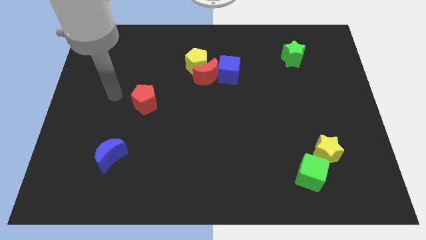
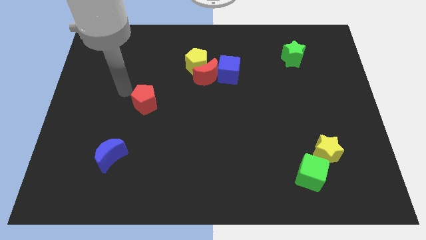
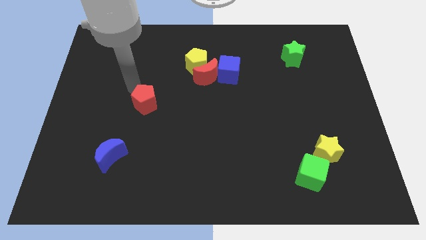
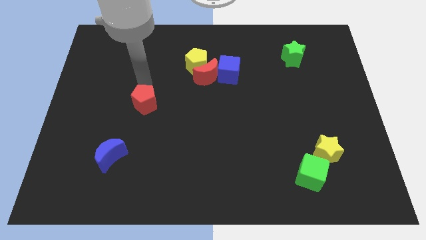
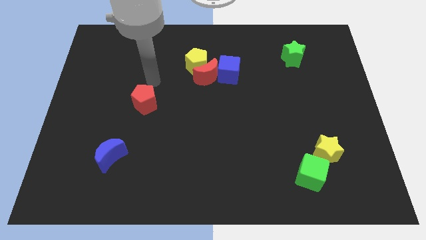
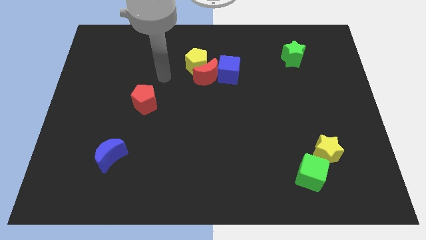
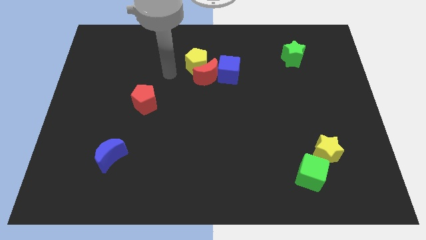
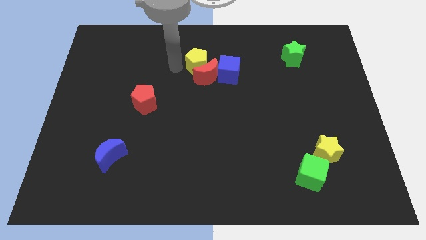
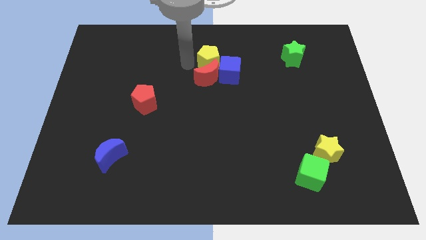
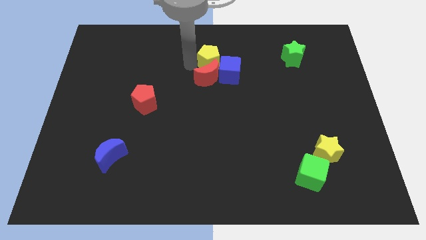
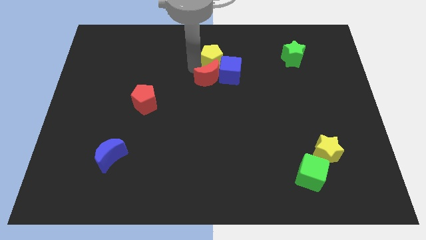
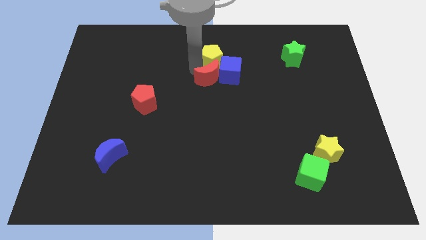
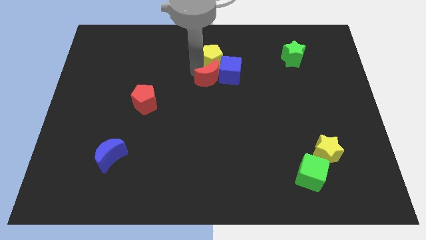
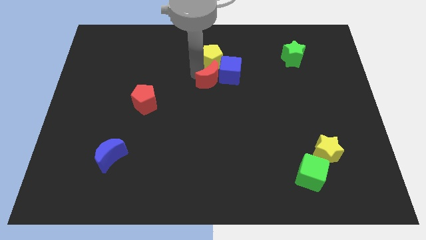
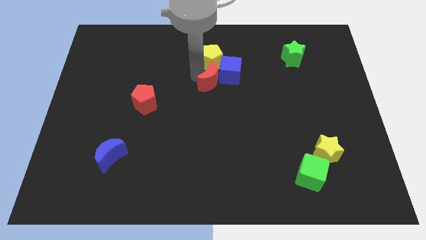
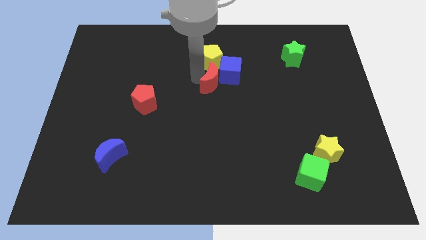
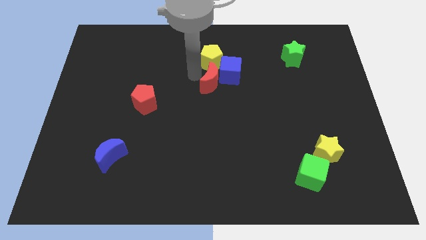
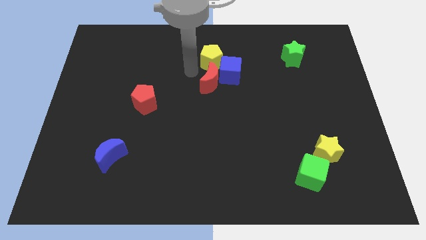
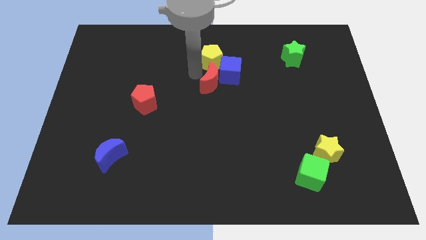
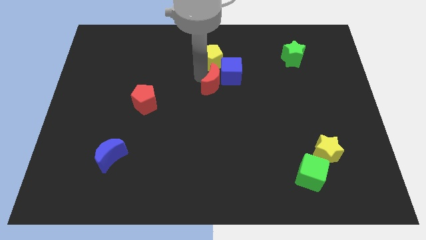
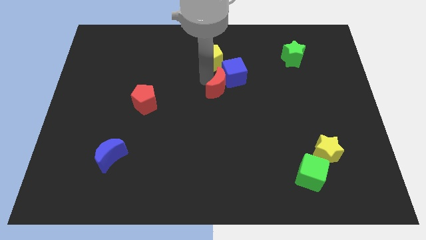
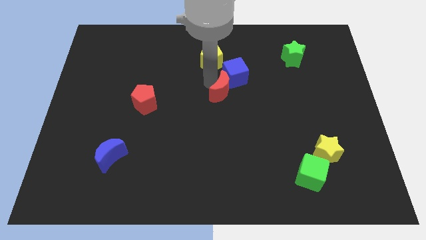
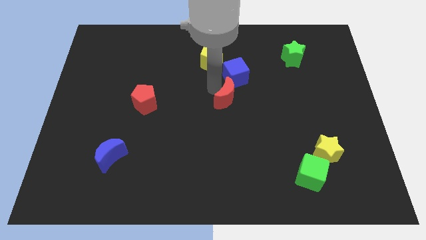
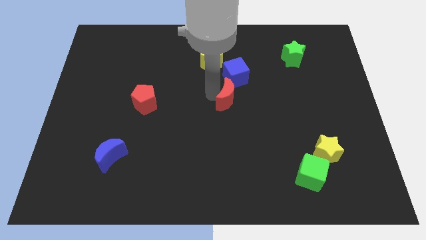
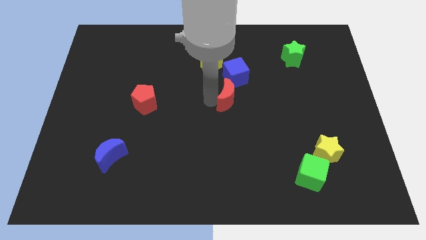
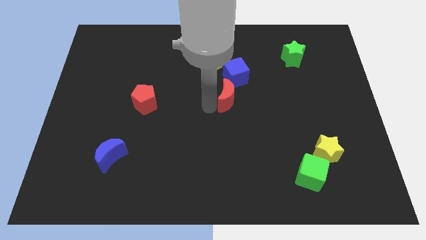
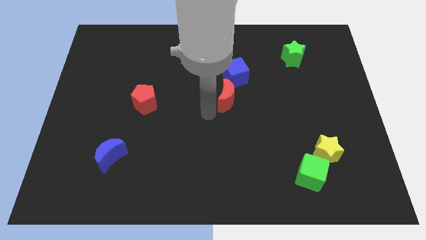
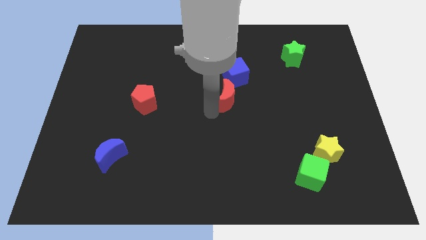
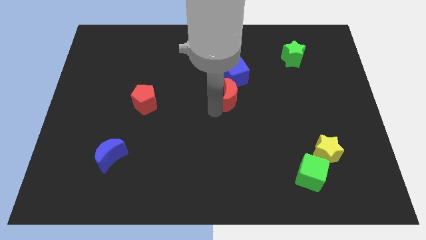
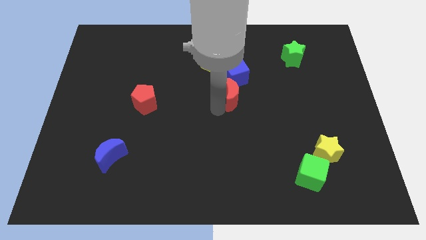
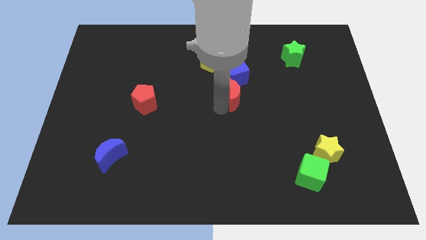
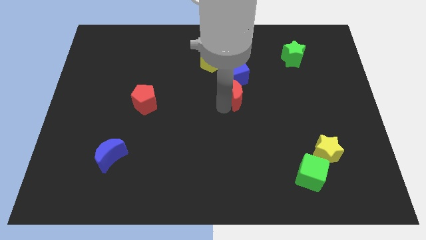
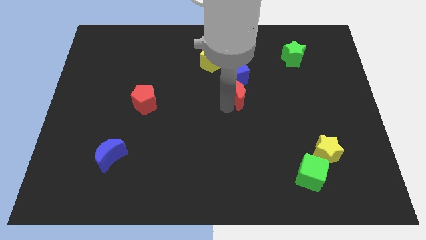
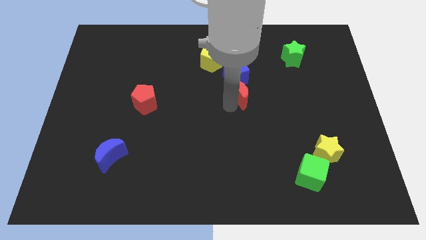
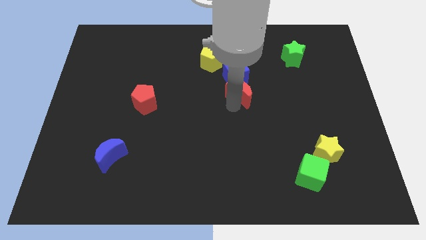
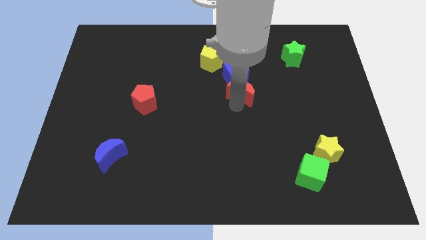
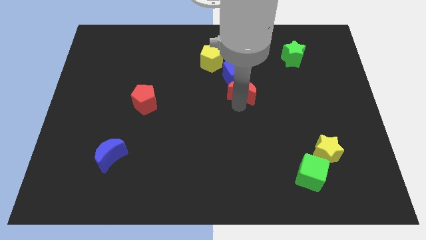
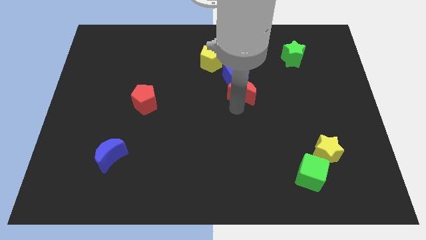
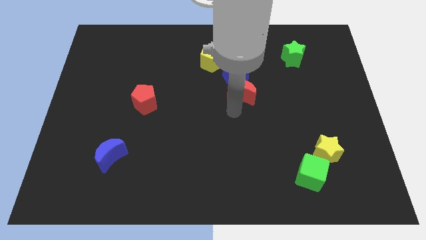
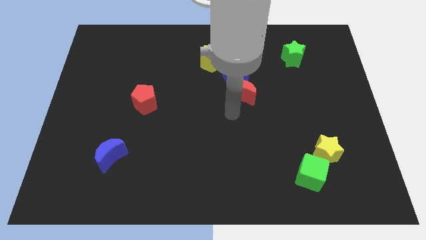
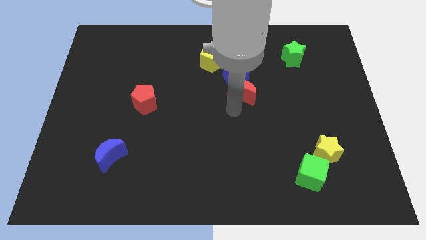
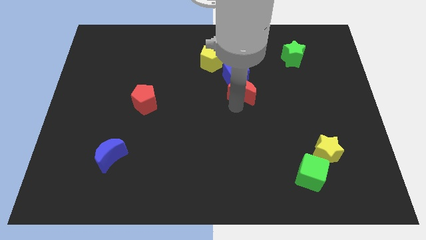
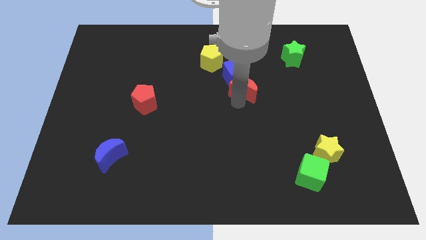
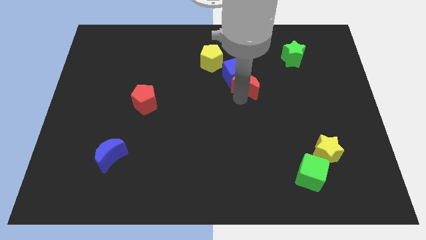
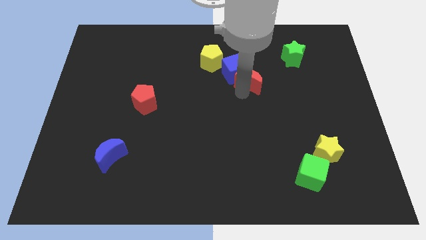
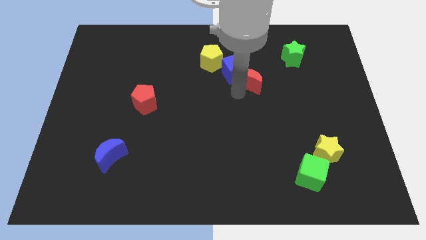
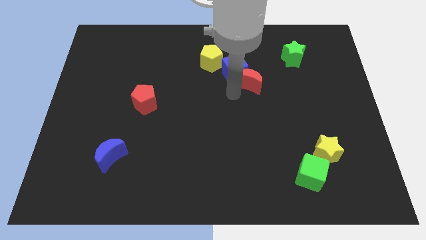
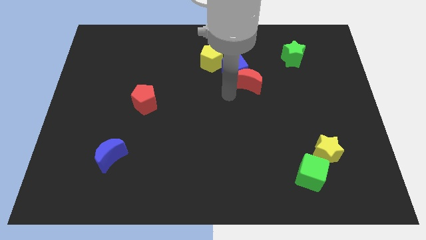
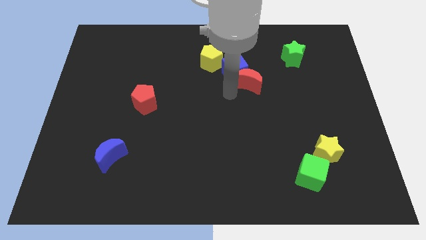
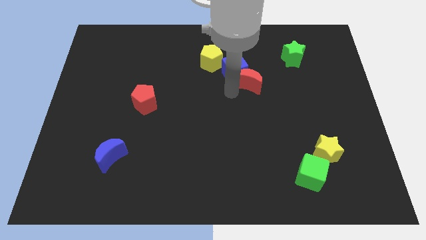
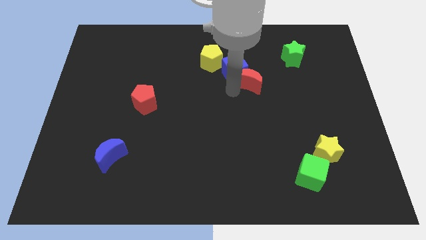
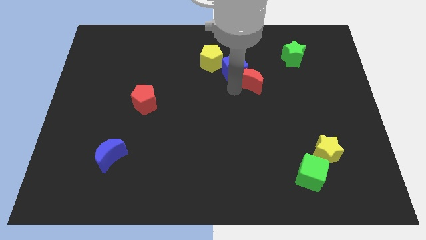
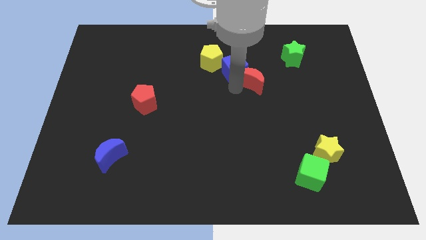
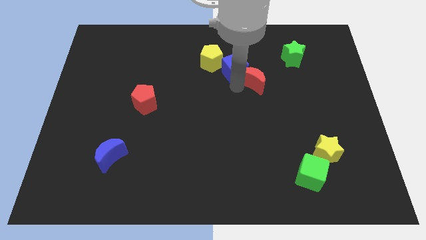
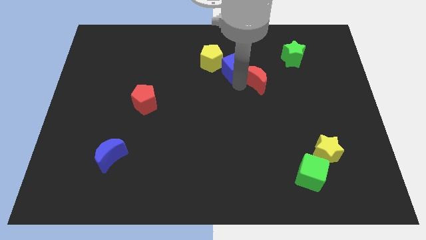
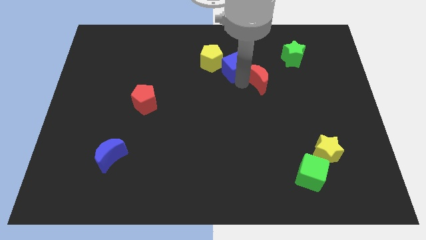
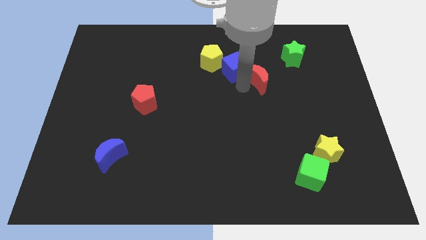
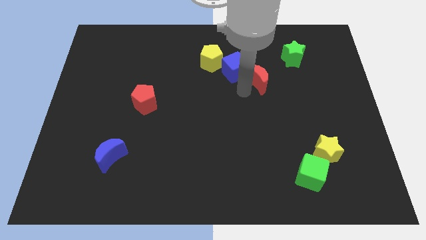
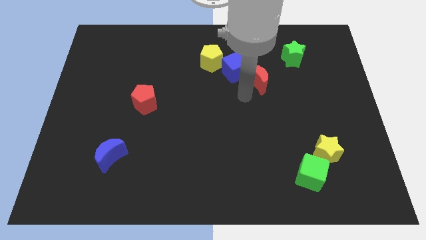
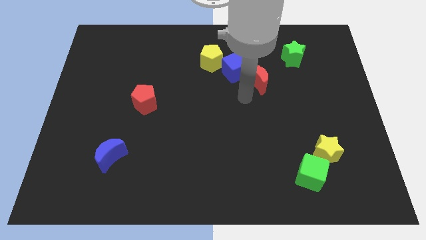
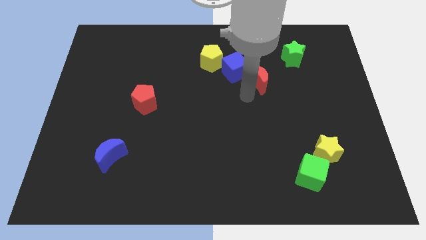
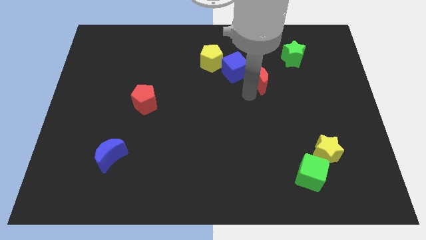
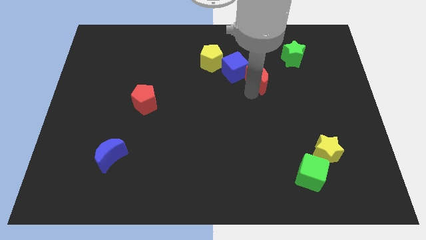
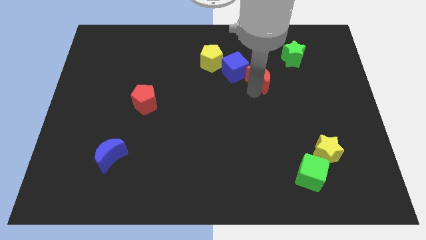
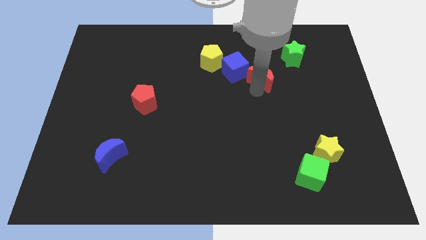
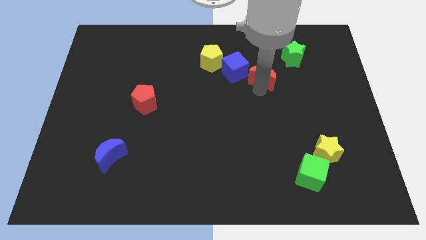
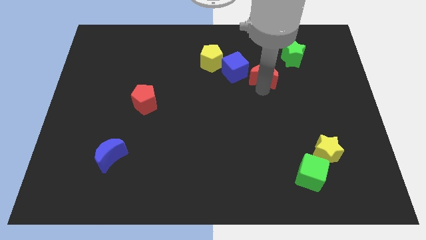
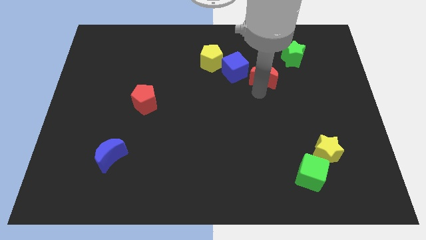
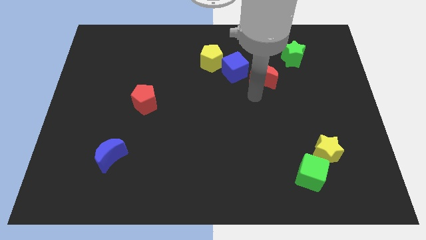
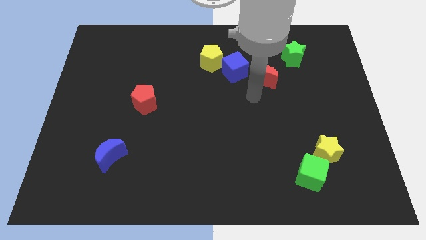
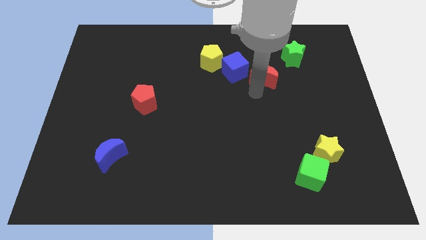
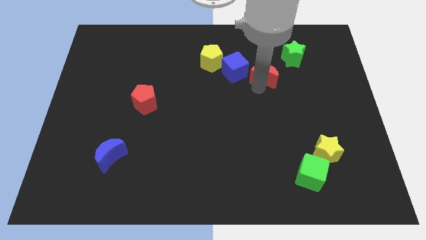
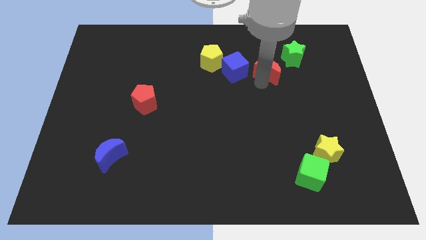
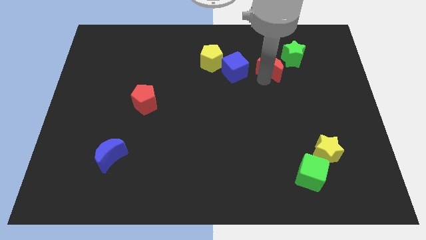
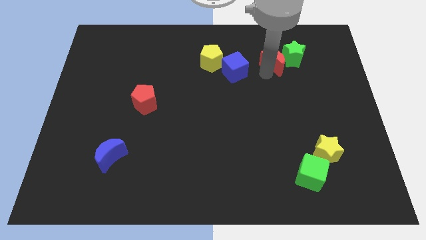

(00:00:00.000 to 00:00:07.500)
push the red moon next to the green star

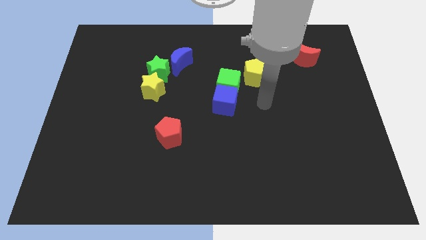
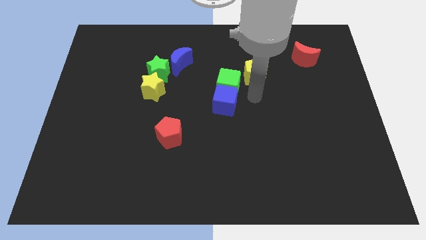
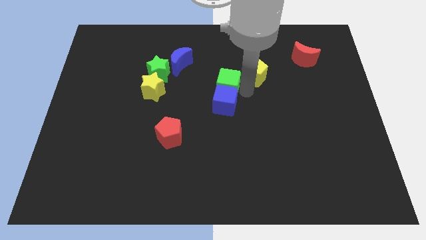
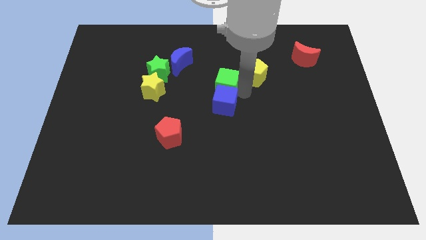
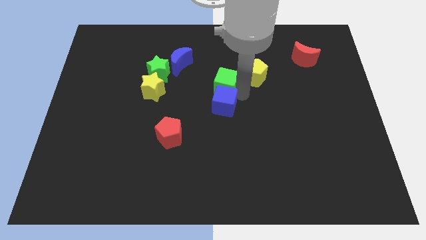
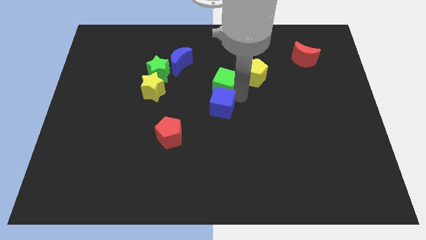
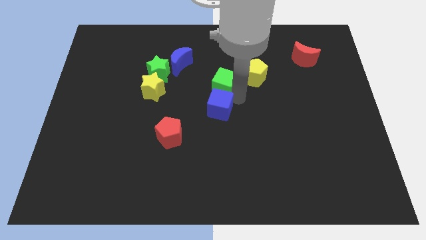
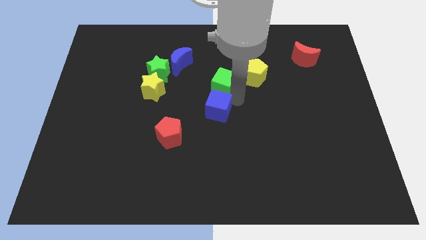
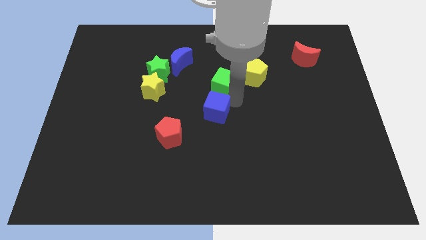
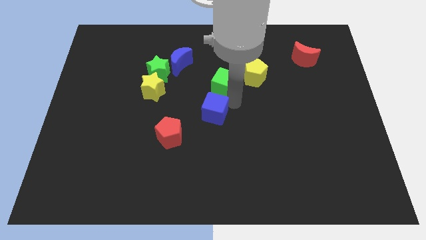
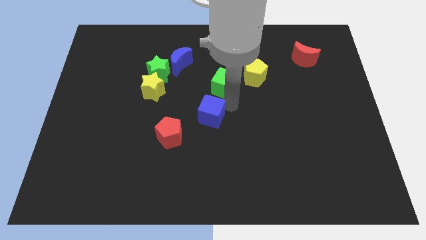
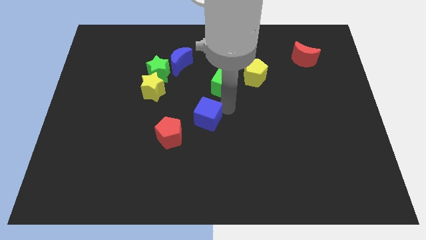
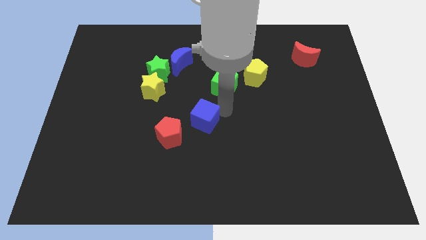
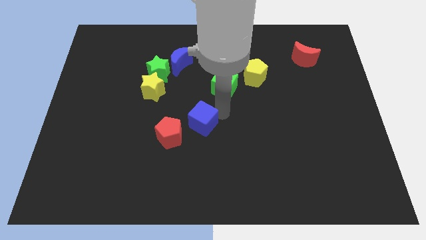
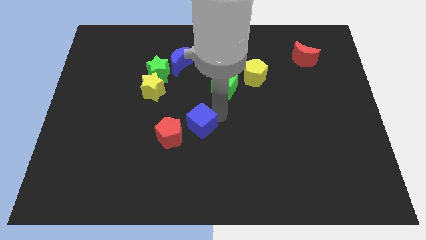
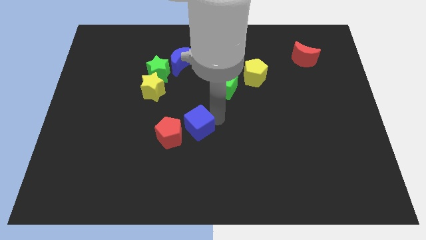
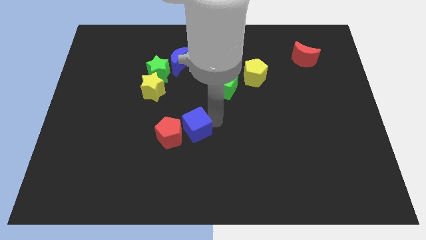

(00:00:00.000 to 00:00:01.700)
put the blue cube close to the red pentagon
